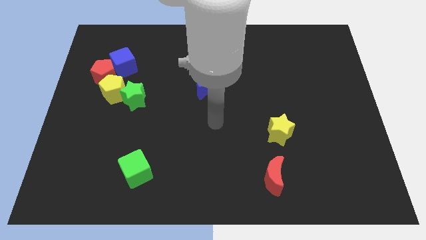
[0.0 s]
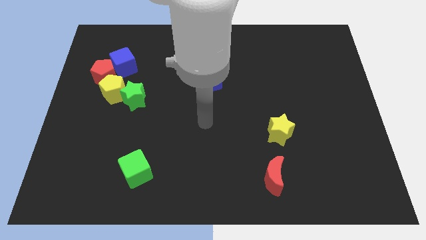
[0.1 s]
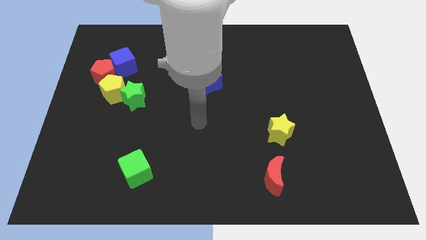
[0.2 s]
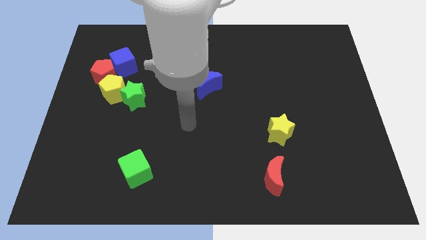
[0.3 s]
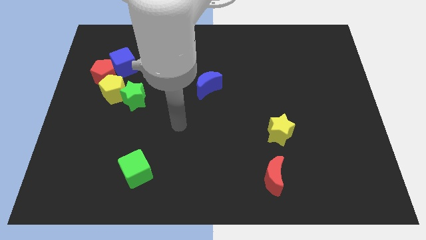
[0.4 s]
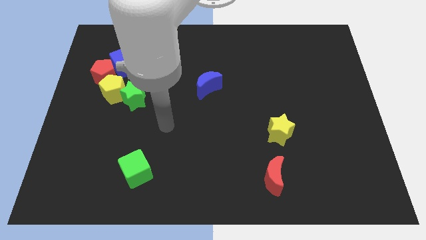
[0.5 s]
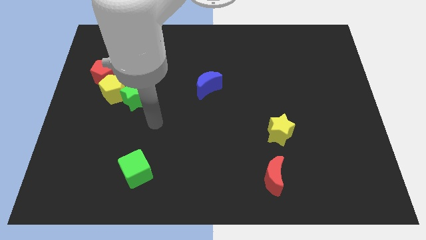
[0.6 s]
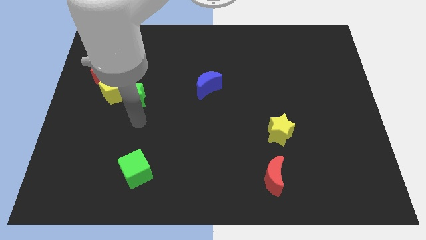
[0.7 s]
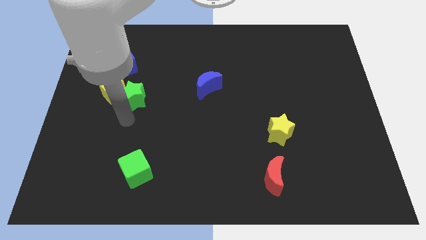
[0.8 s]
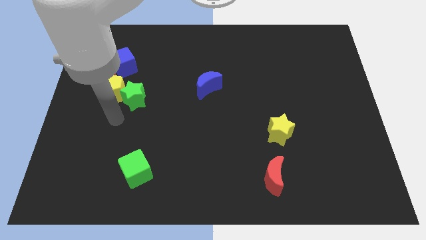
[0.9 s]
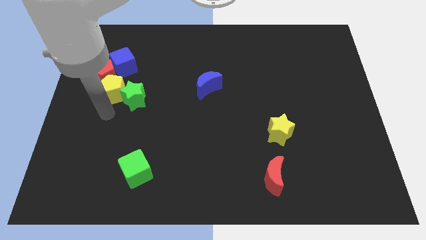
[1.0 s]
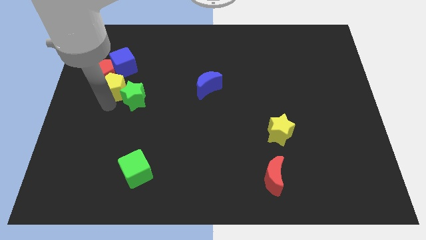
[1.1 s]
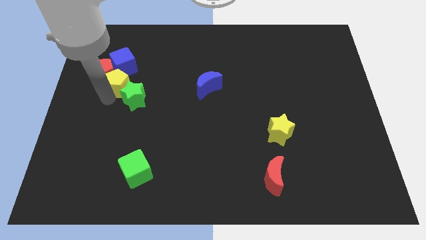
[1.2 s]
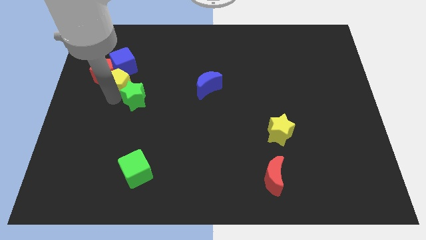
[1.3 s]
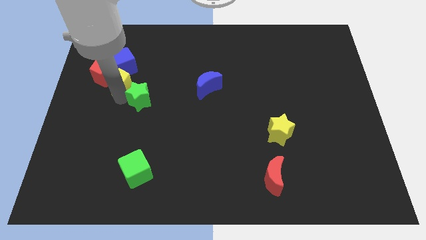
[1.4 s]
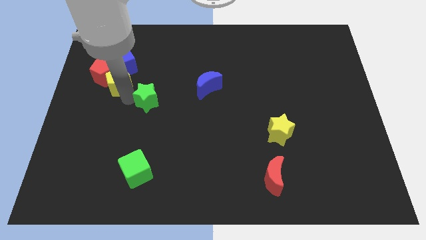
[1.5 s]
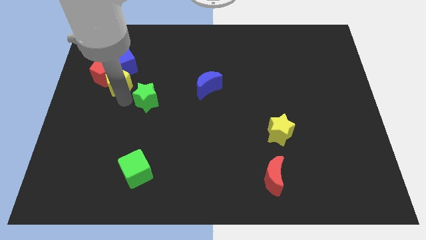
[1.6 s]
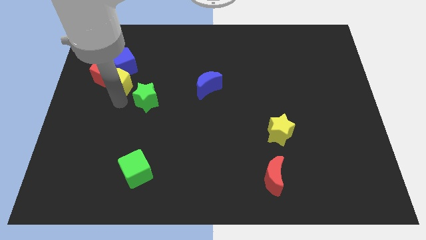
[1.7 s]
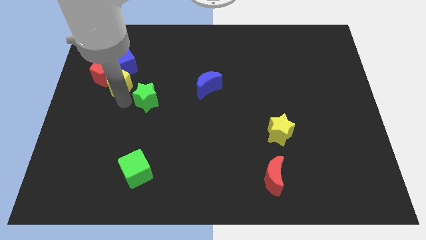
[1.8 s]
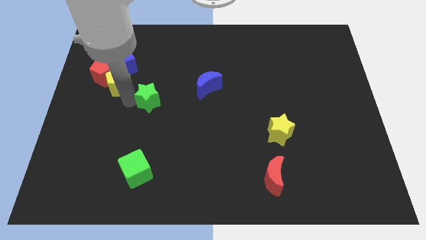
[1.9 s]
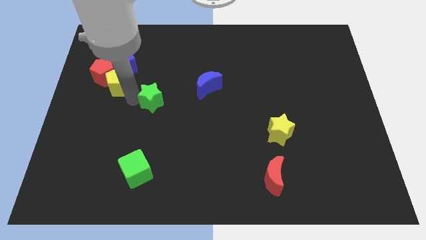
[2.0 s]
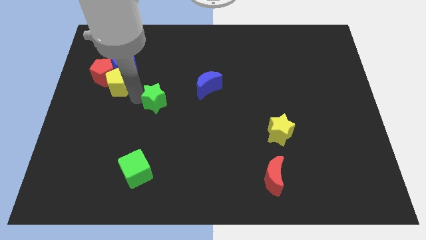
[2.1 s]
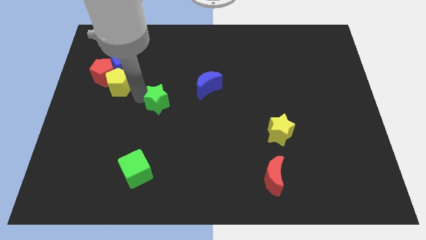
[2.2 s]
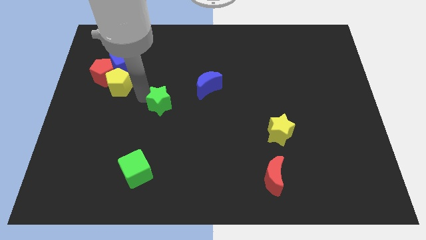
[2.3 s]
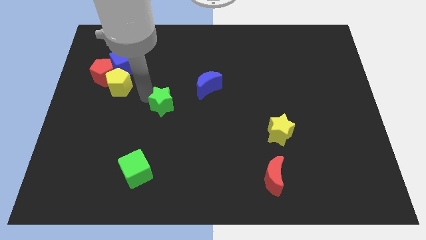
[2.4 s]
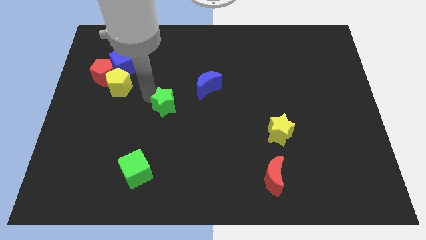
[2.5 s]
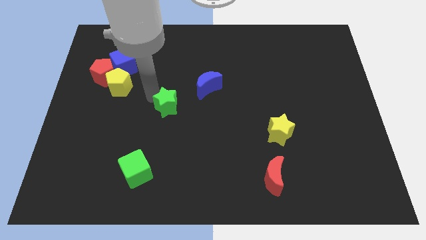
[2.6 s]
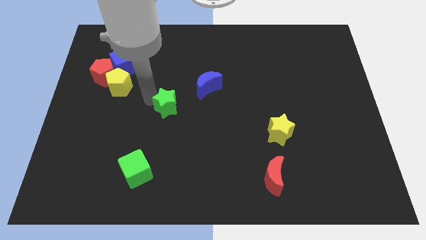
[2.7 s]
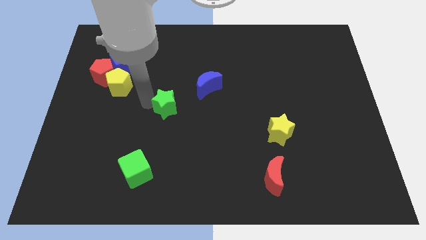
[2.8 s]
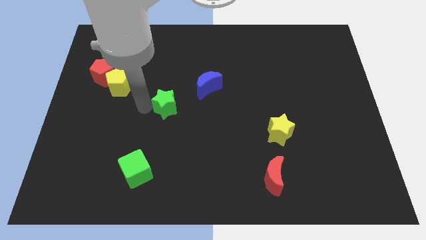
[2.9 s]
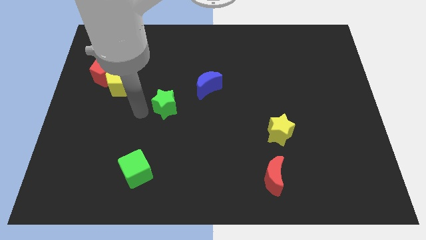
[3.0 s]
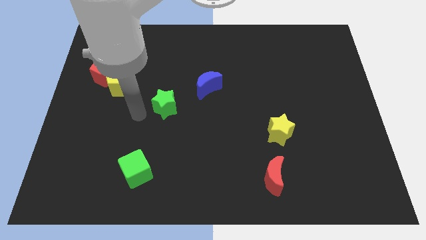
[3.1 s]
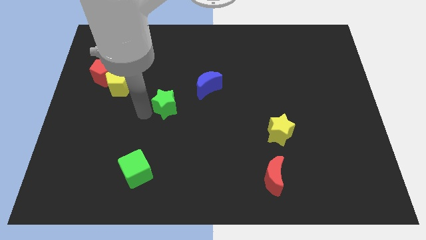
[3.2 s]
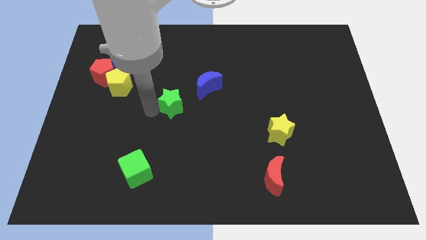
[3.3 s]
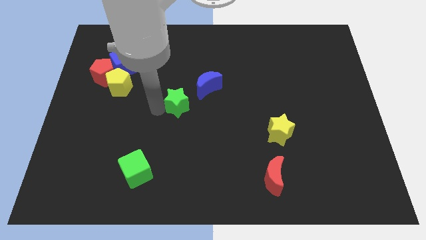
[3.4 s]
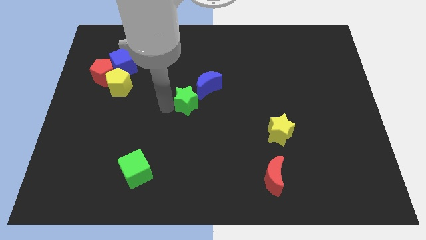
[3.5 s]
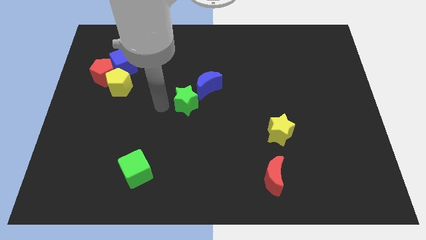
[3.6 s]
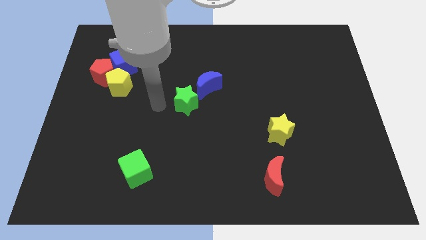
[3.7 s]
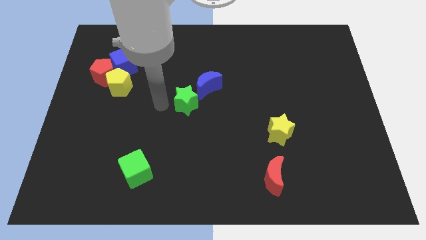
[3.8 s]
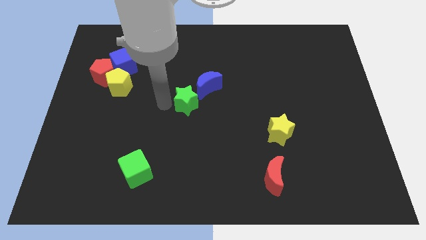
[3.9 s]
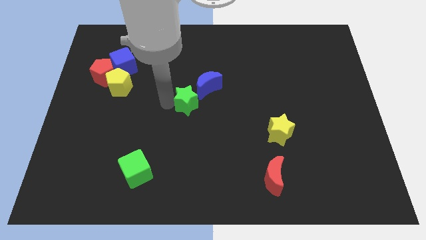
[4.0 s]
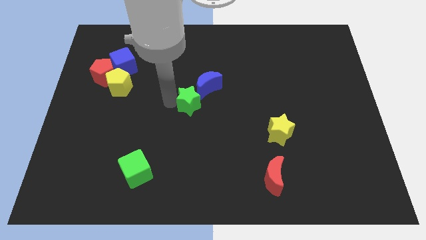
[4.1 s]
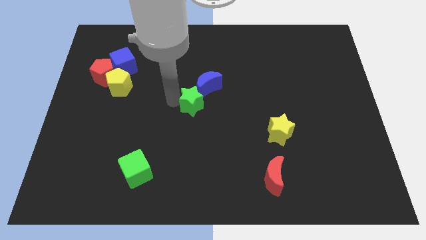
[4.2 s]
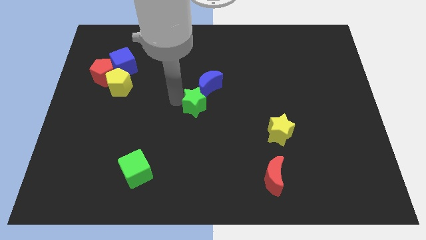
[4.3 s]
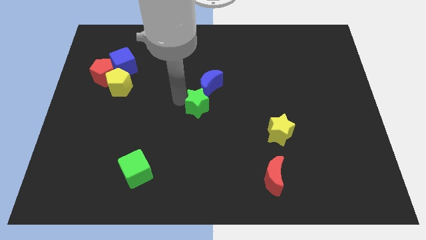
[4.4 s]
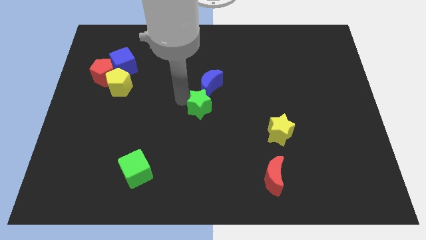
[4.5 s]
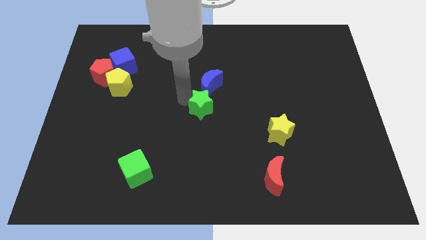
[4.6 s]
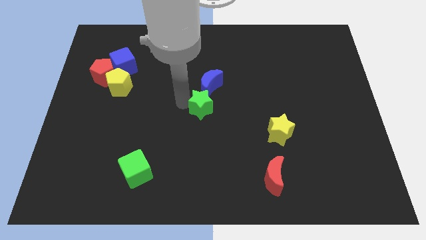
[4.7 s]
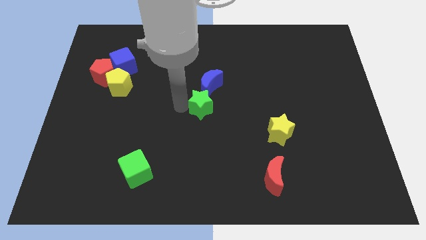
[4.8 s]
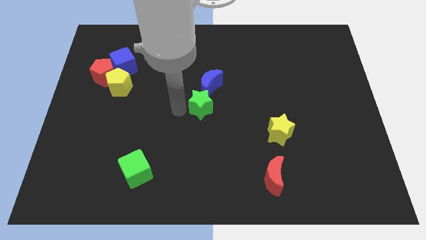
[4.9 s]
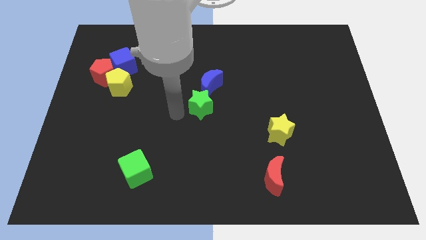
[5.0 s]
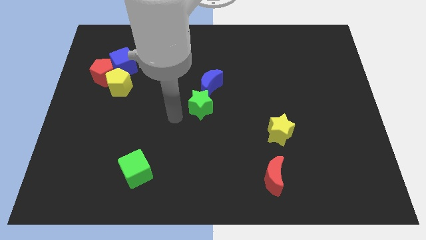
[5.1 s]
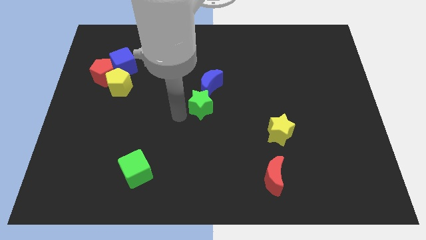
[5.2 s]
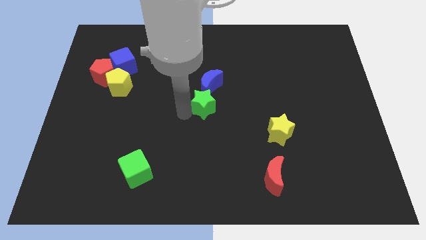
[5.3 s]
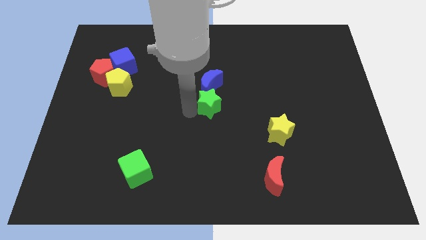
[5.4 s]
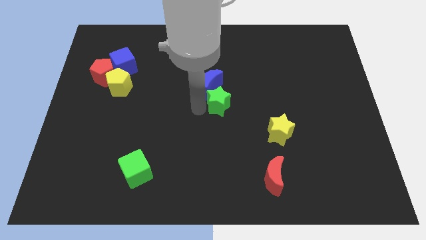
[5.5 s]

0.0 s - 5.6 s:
move the green star right

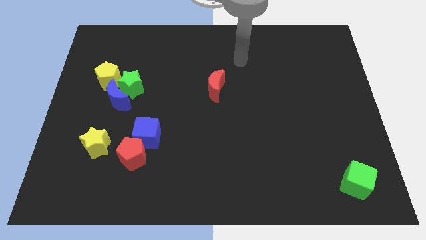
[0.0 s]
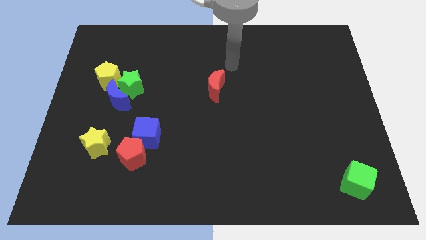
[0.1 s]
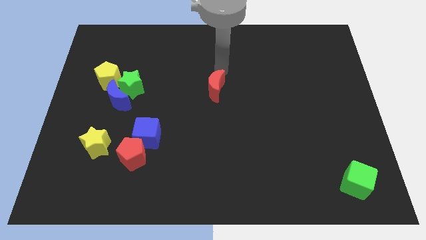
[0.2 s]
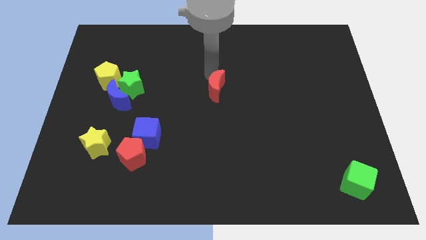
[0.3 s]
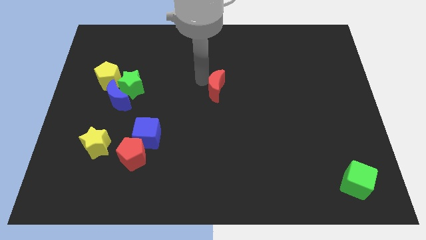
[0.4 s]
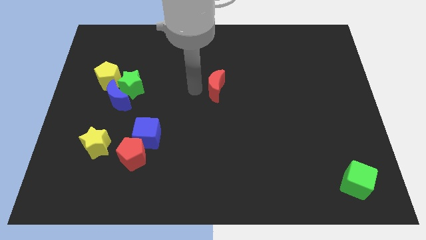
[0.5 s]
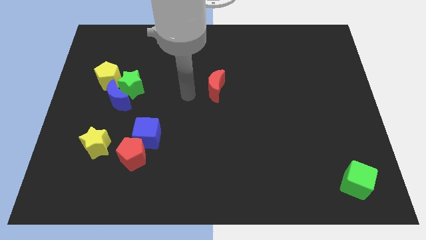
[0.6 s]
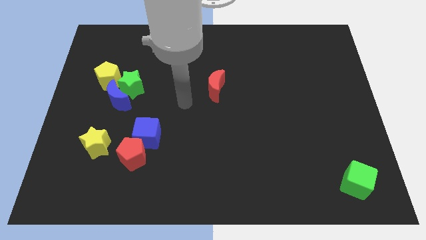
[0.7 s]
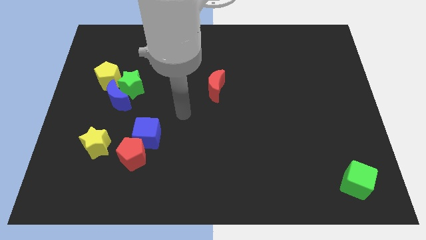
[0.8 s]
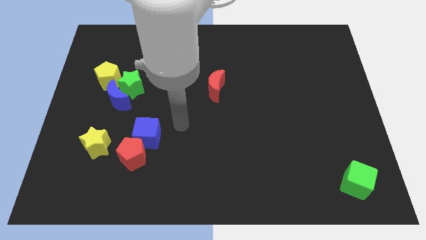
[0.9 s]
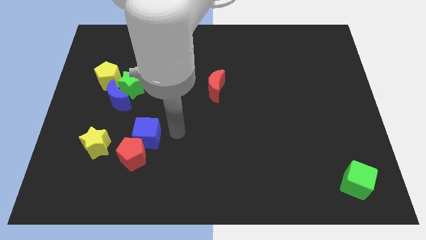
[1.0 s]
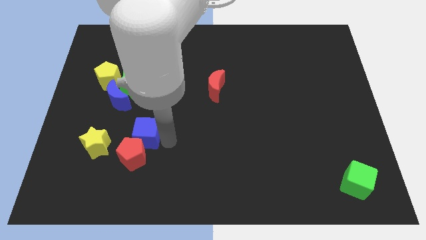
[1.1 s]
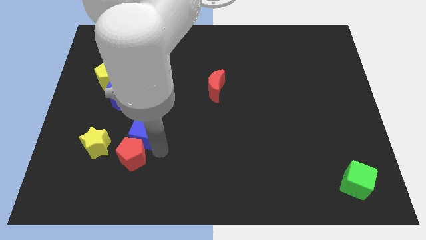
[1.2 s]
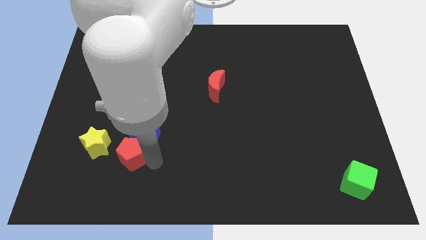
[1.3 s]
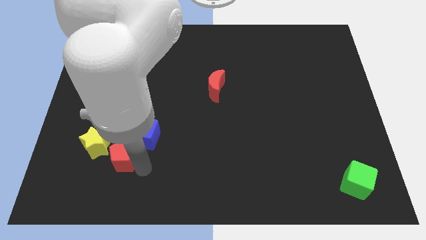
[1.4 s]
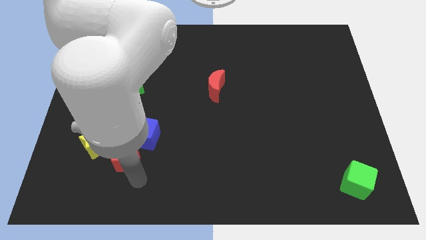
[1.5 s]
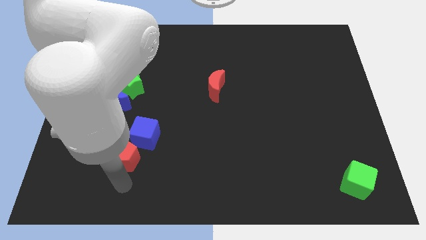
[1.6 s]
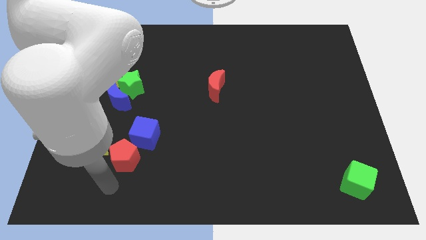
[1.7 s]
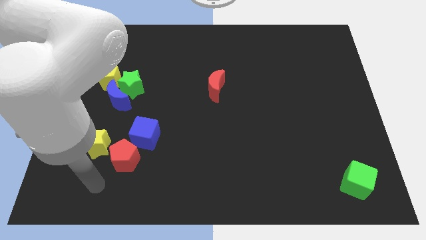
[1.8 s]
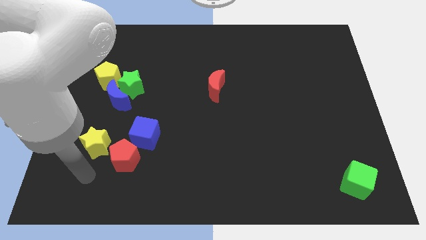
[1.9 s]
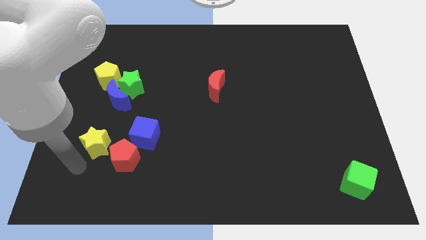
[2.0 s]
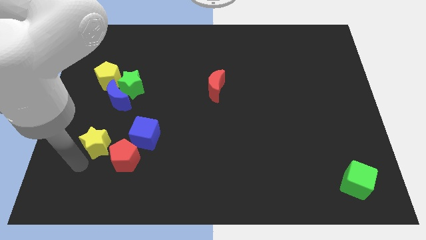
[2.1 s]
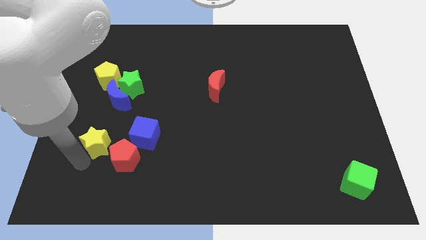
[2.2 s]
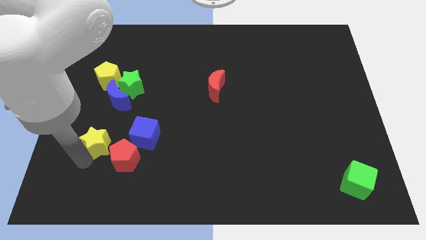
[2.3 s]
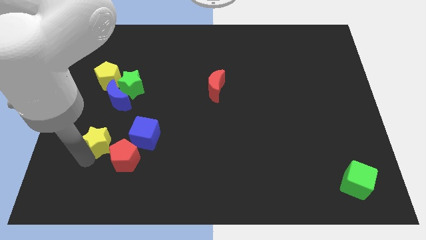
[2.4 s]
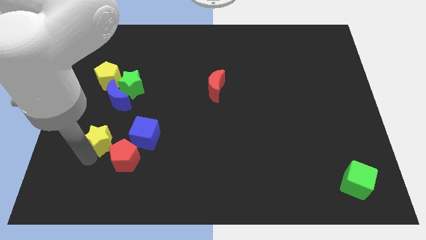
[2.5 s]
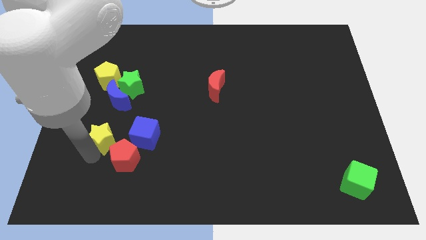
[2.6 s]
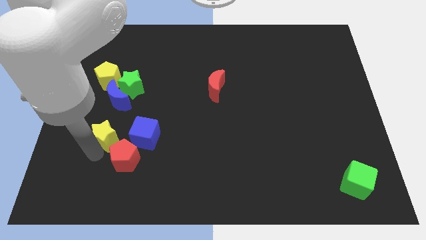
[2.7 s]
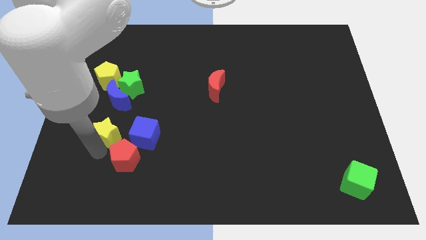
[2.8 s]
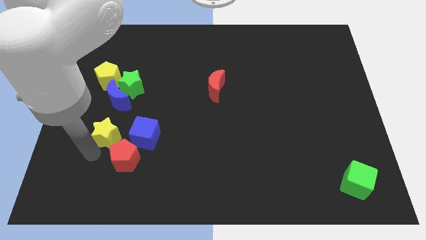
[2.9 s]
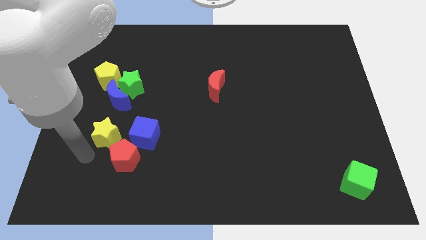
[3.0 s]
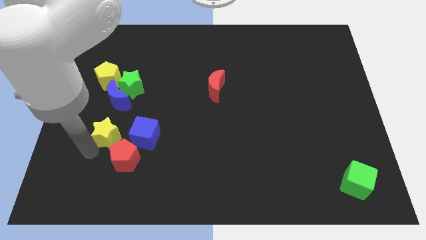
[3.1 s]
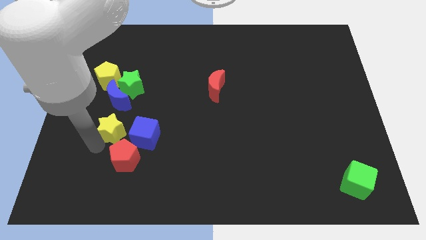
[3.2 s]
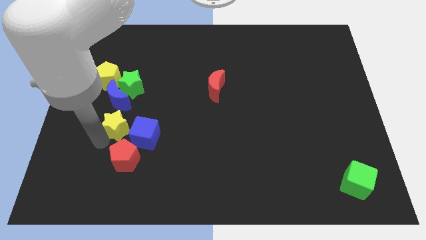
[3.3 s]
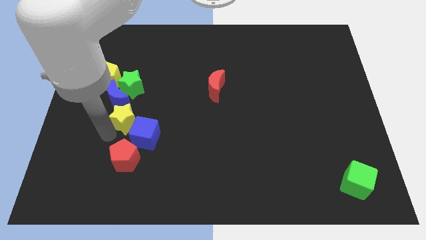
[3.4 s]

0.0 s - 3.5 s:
slightly push the yellow star up and right
